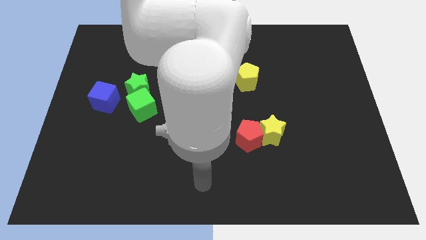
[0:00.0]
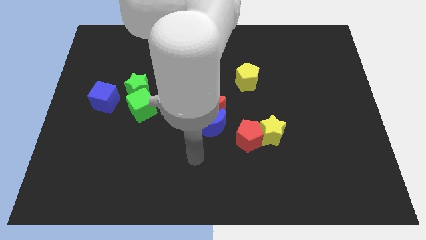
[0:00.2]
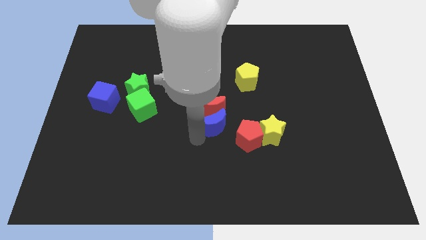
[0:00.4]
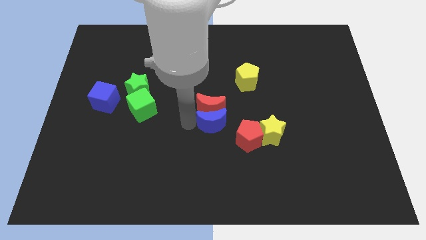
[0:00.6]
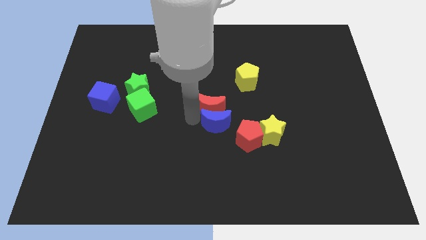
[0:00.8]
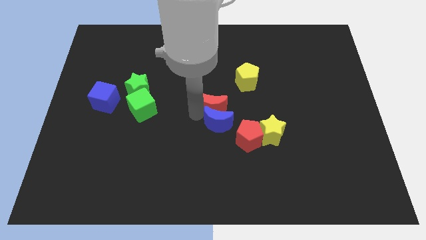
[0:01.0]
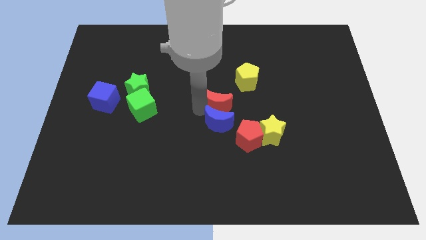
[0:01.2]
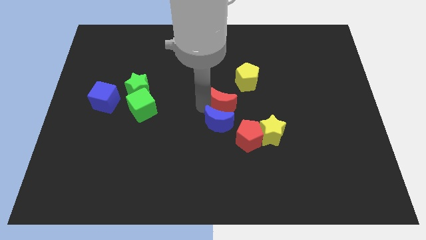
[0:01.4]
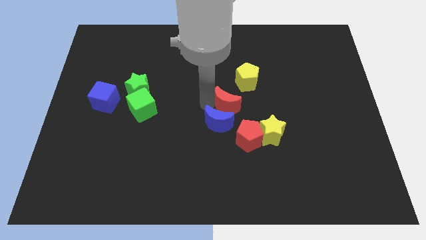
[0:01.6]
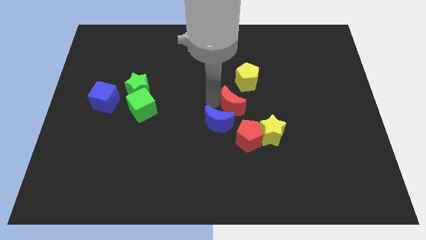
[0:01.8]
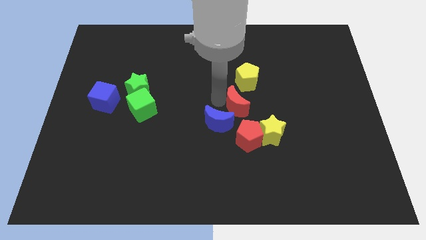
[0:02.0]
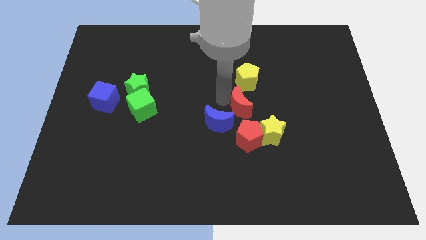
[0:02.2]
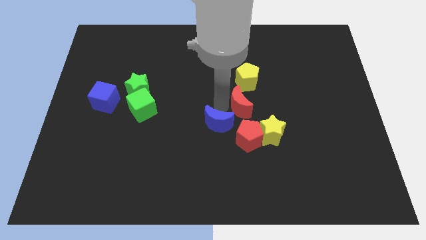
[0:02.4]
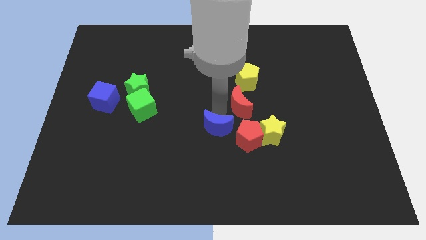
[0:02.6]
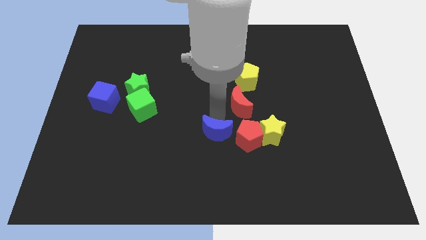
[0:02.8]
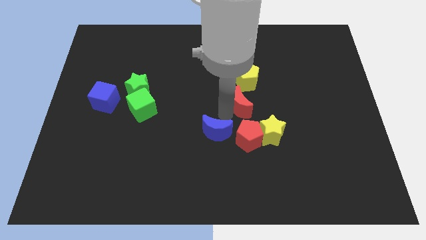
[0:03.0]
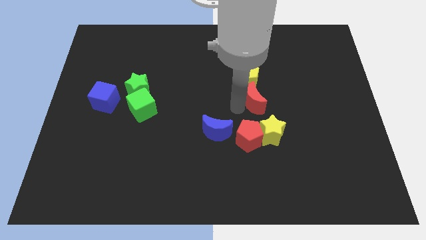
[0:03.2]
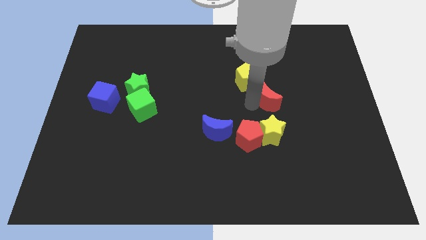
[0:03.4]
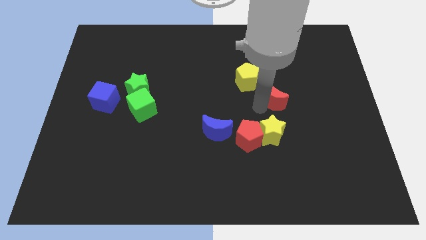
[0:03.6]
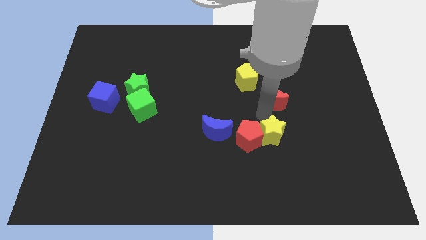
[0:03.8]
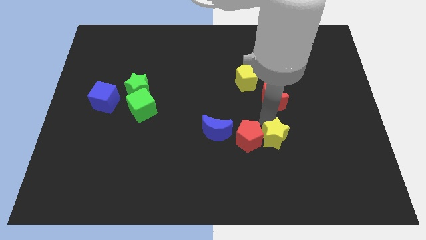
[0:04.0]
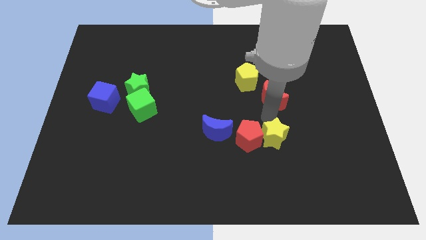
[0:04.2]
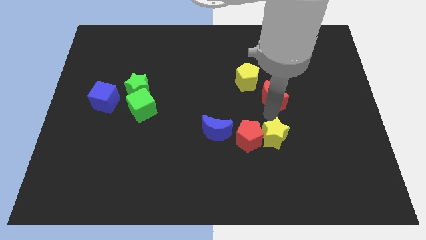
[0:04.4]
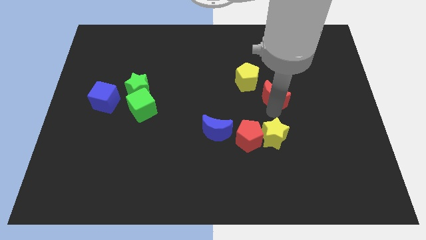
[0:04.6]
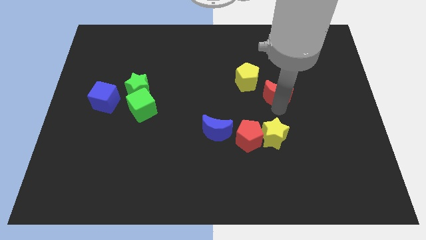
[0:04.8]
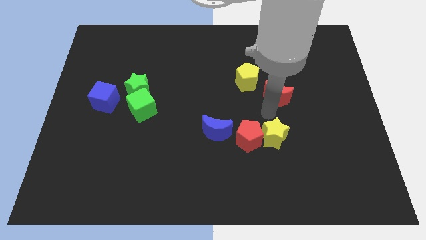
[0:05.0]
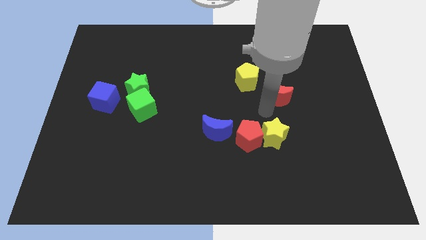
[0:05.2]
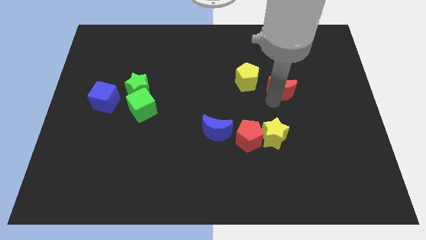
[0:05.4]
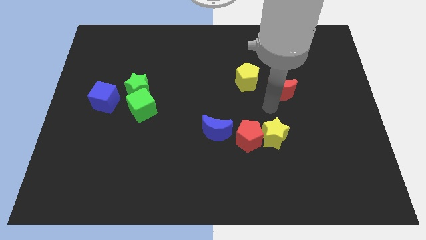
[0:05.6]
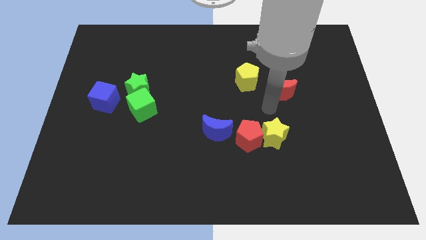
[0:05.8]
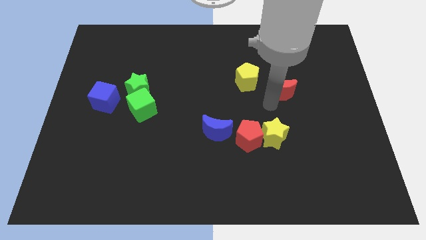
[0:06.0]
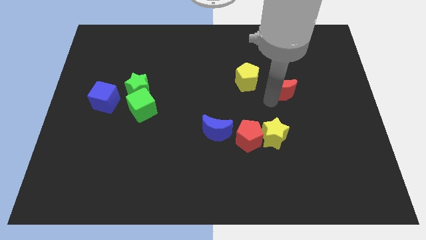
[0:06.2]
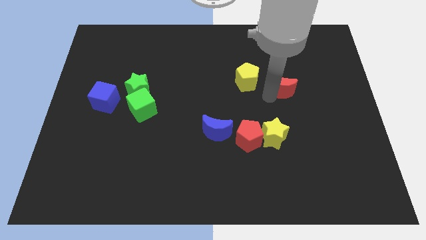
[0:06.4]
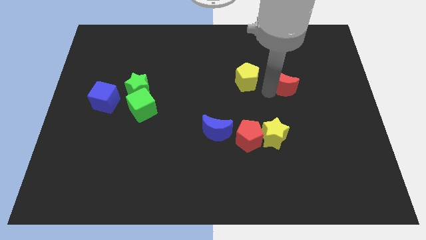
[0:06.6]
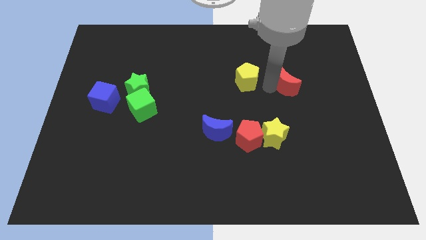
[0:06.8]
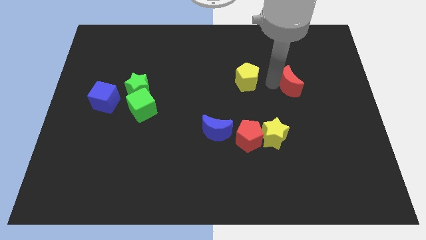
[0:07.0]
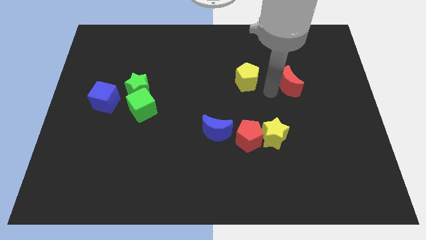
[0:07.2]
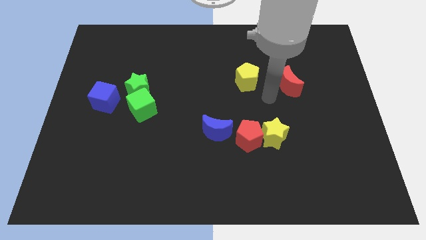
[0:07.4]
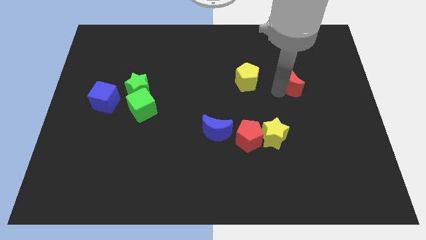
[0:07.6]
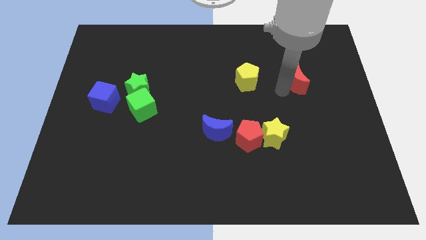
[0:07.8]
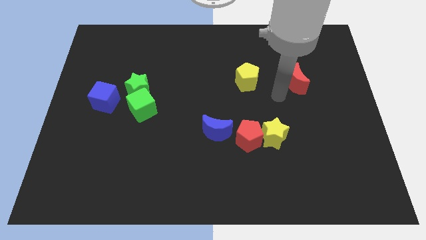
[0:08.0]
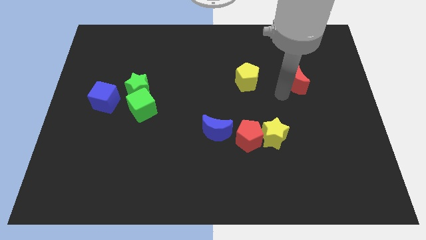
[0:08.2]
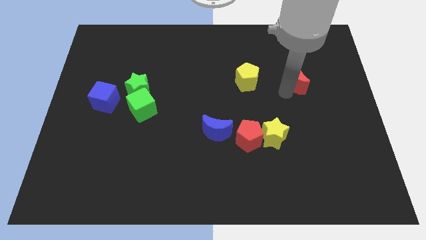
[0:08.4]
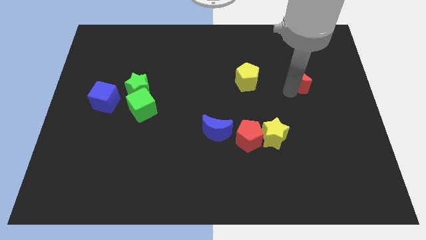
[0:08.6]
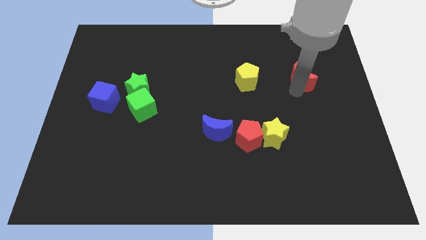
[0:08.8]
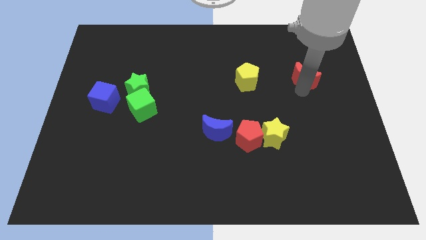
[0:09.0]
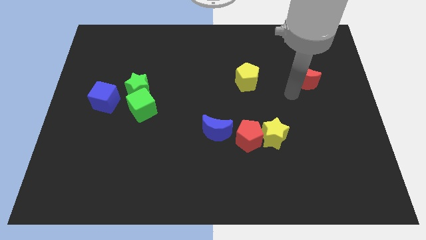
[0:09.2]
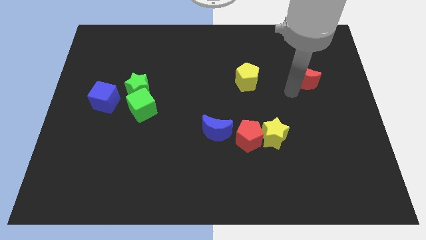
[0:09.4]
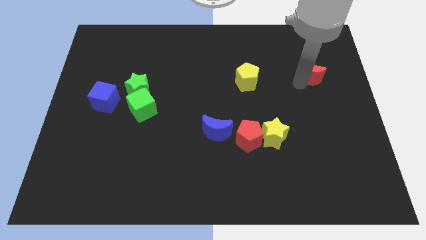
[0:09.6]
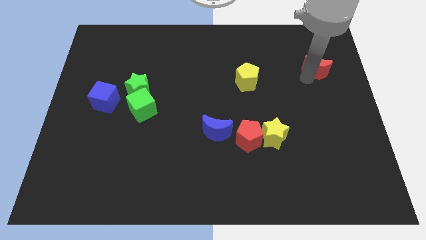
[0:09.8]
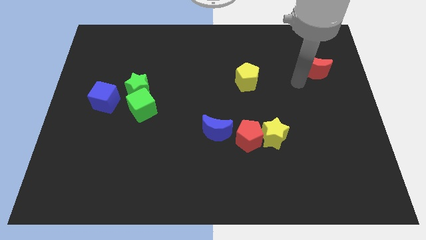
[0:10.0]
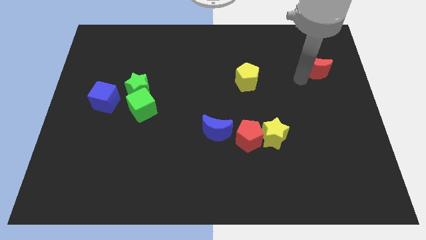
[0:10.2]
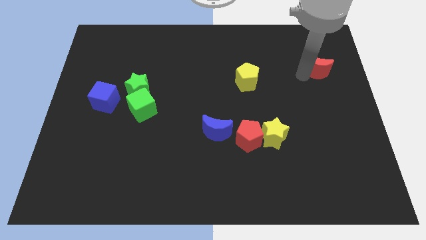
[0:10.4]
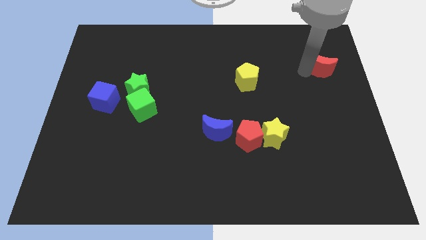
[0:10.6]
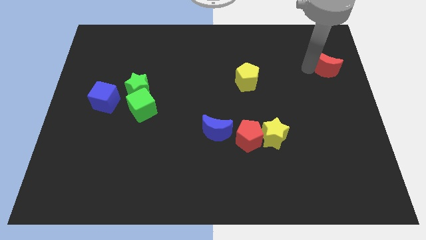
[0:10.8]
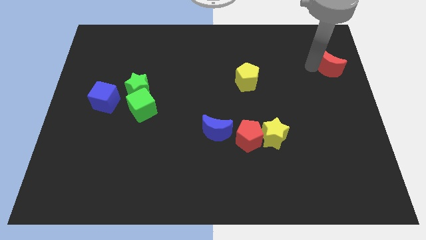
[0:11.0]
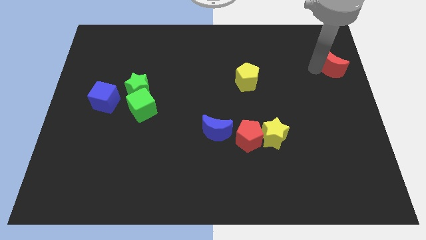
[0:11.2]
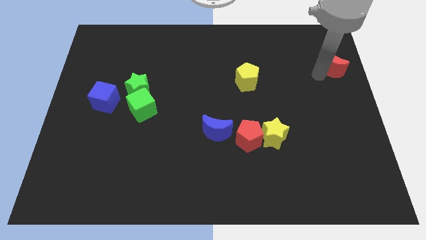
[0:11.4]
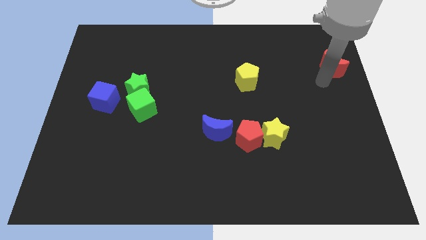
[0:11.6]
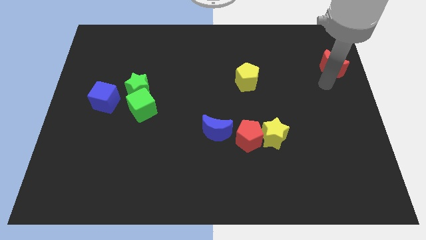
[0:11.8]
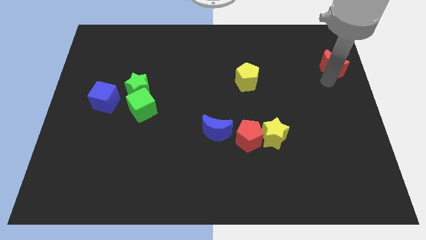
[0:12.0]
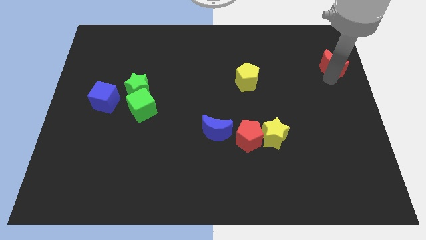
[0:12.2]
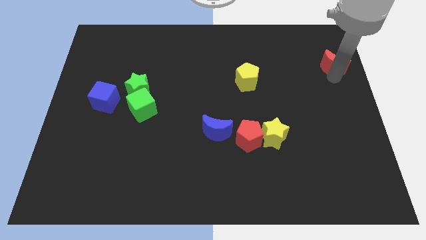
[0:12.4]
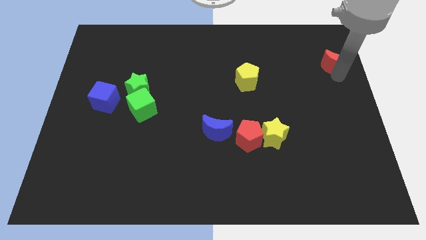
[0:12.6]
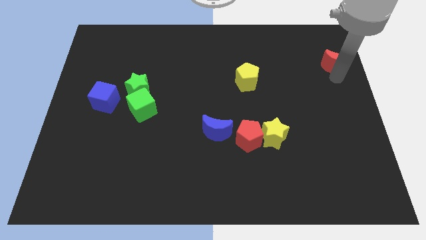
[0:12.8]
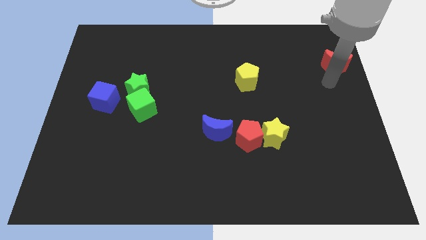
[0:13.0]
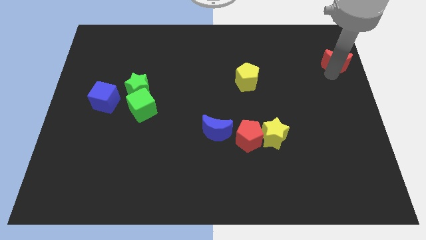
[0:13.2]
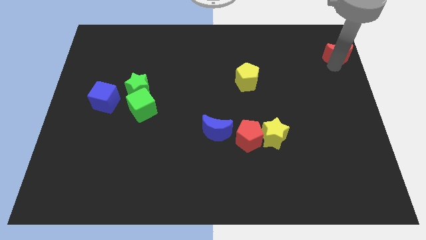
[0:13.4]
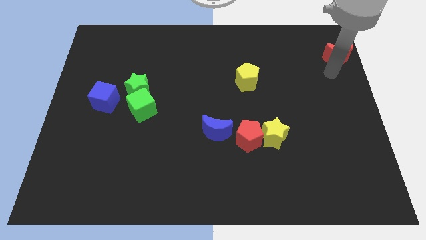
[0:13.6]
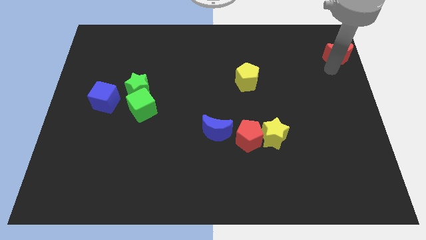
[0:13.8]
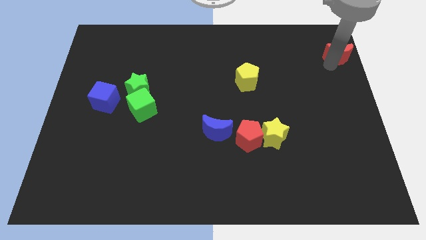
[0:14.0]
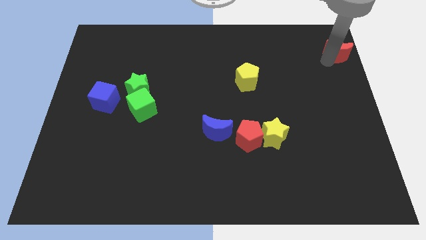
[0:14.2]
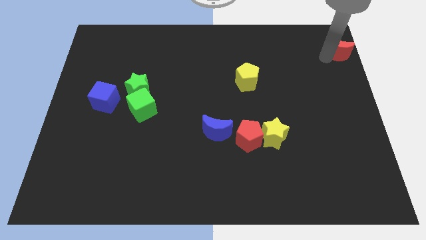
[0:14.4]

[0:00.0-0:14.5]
push the red moon to the upper right corner
